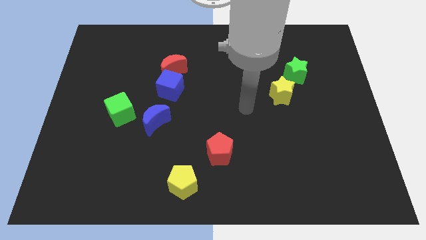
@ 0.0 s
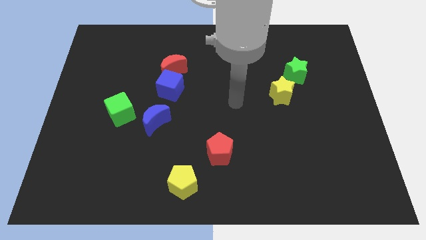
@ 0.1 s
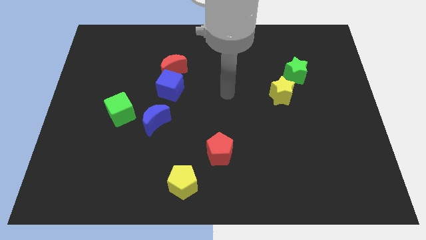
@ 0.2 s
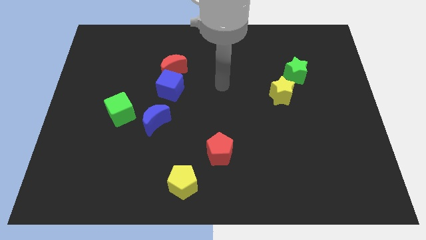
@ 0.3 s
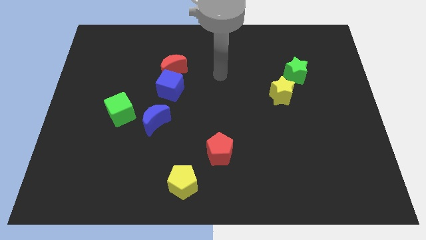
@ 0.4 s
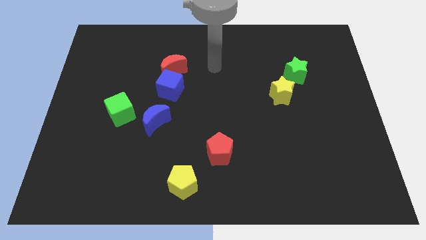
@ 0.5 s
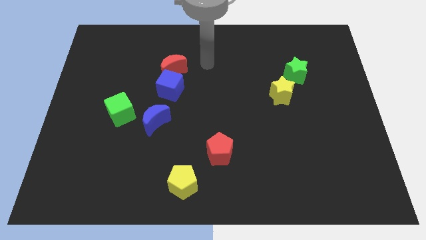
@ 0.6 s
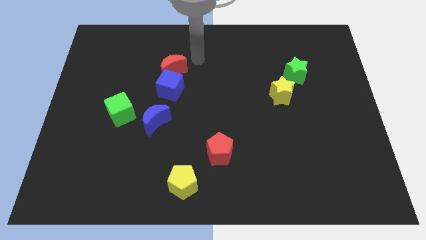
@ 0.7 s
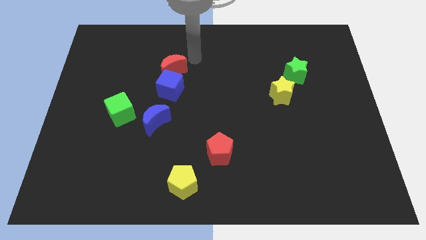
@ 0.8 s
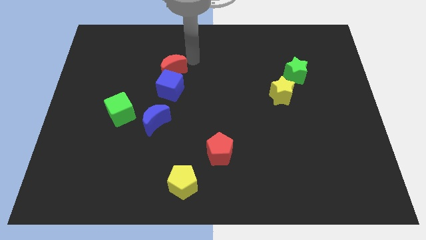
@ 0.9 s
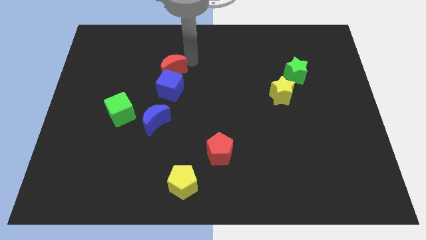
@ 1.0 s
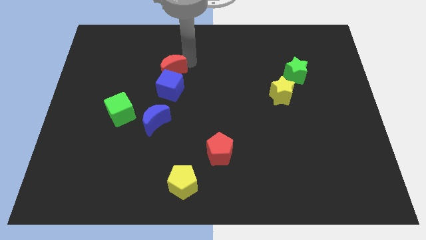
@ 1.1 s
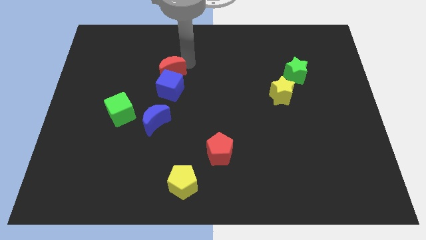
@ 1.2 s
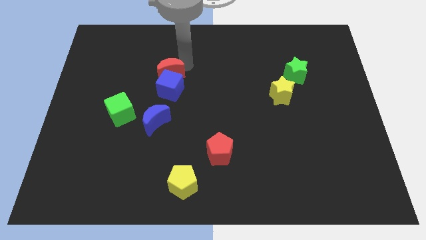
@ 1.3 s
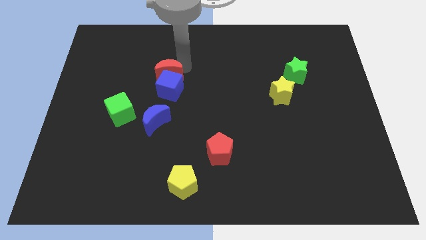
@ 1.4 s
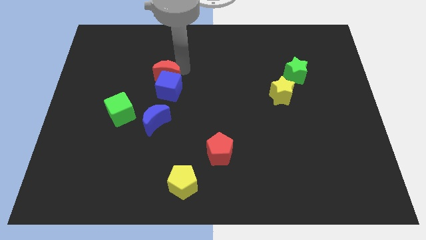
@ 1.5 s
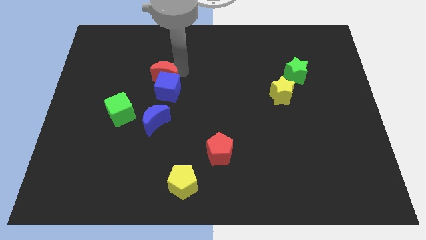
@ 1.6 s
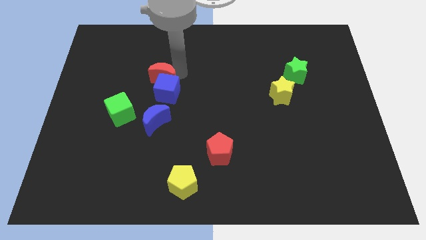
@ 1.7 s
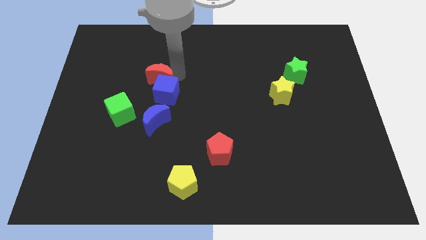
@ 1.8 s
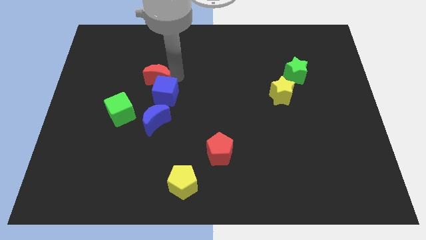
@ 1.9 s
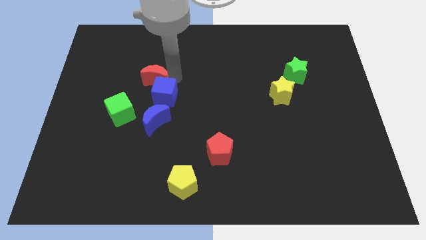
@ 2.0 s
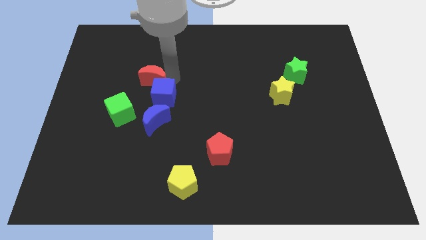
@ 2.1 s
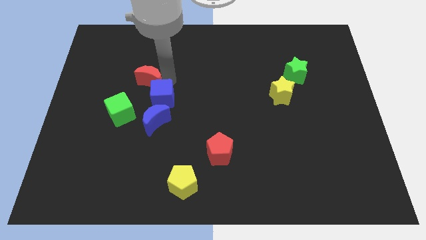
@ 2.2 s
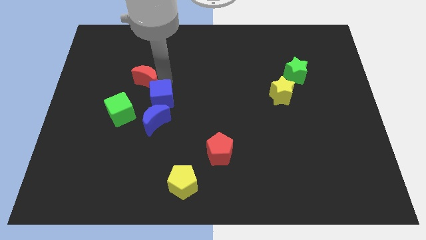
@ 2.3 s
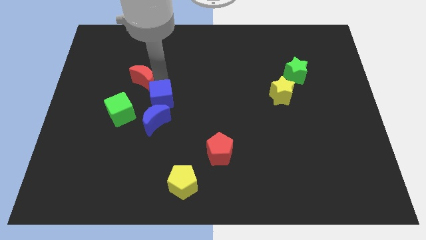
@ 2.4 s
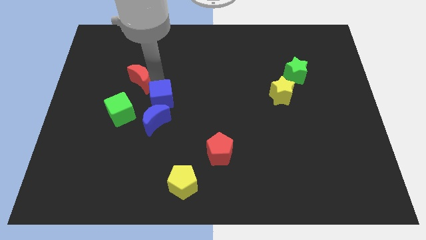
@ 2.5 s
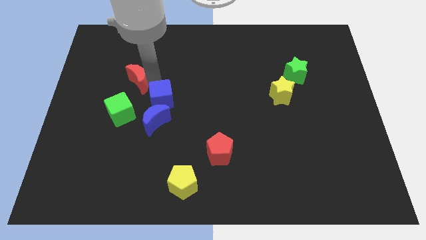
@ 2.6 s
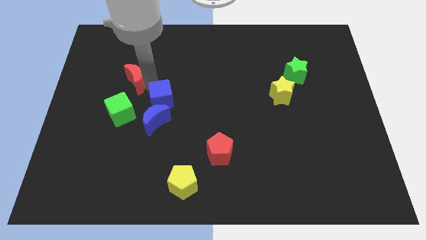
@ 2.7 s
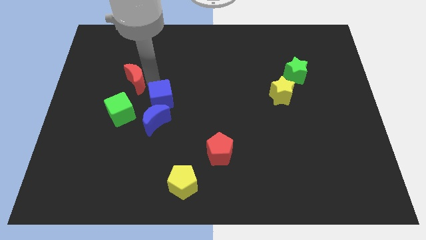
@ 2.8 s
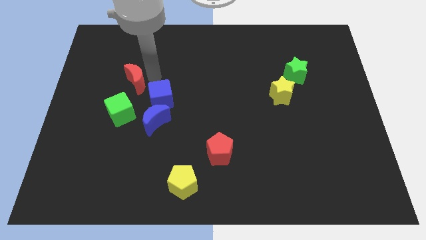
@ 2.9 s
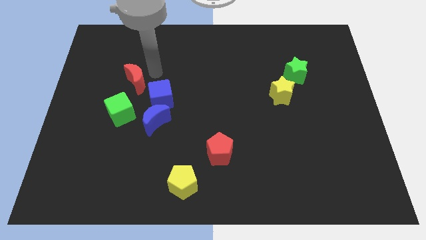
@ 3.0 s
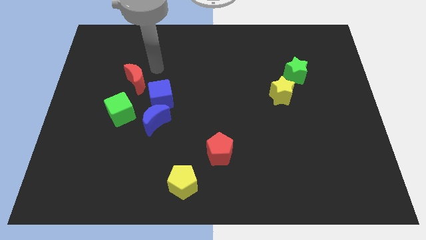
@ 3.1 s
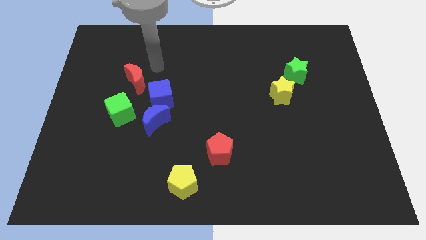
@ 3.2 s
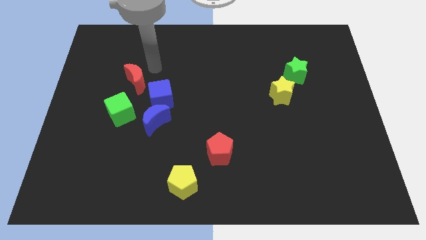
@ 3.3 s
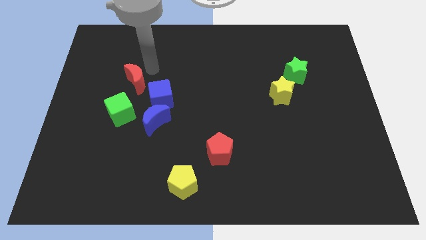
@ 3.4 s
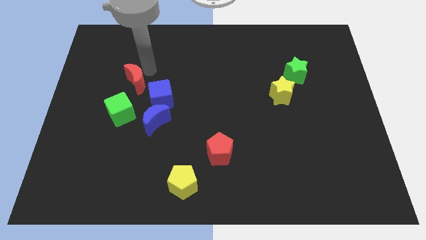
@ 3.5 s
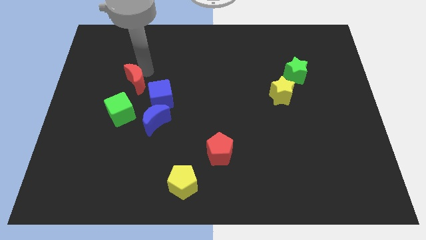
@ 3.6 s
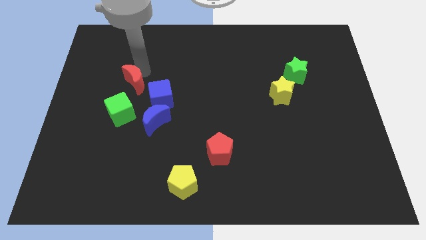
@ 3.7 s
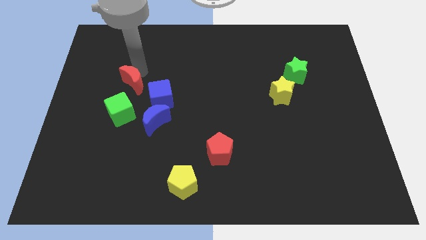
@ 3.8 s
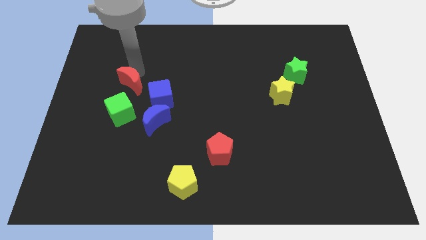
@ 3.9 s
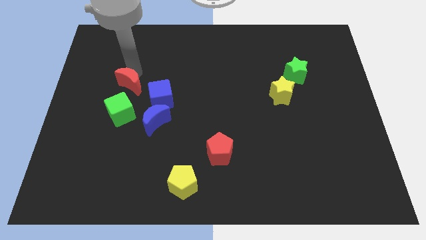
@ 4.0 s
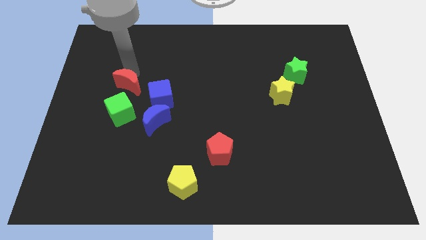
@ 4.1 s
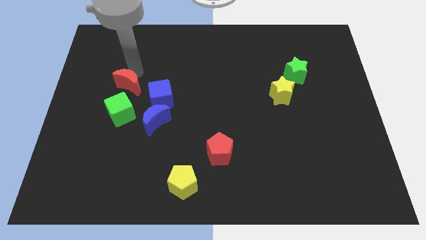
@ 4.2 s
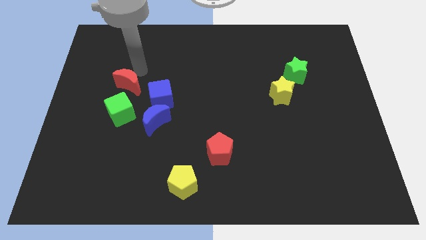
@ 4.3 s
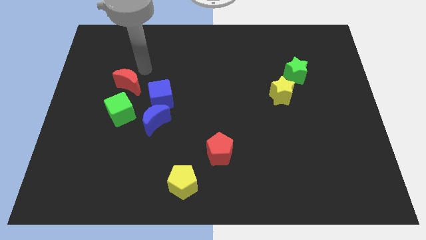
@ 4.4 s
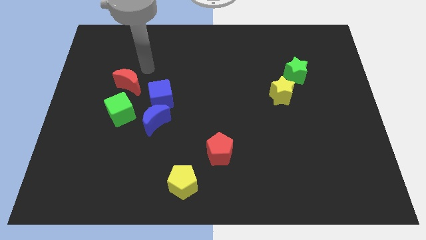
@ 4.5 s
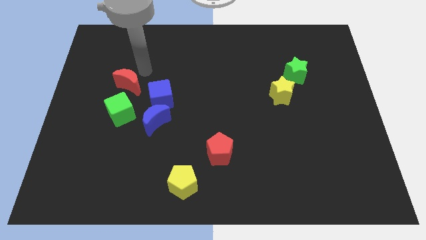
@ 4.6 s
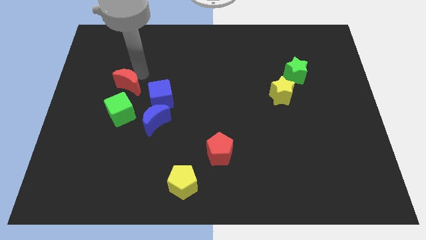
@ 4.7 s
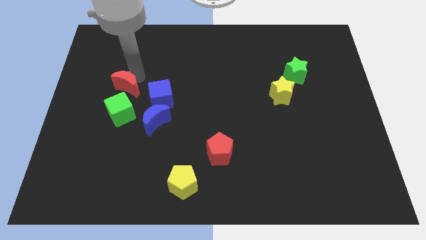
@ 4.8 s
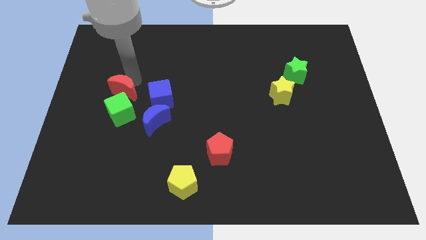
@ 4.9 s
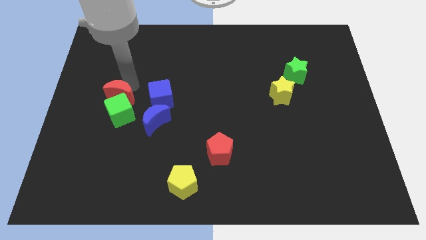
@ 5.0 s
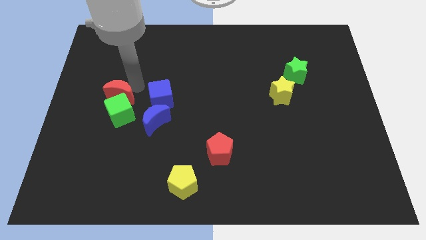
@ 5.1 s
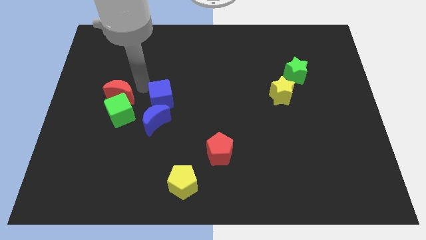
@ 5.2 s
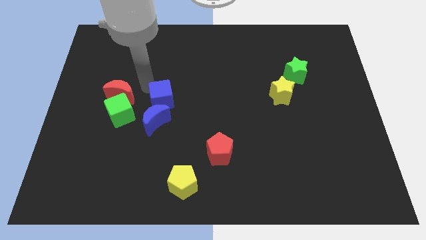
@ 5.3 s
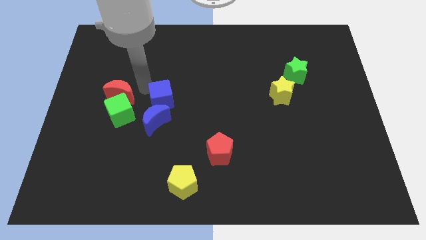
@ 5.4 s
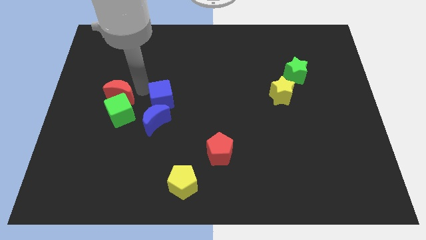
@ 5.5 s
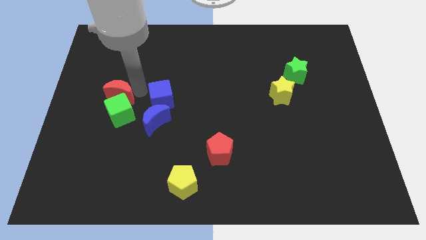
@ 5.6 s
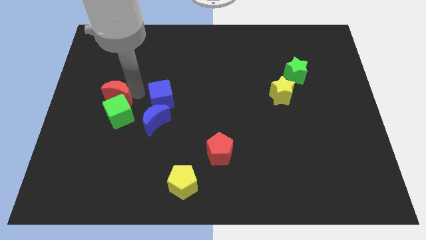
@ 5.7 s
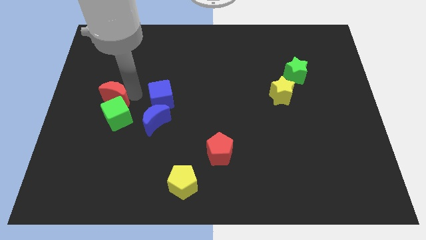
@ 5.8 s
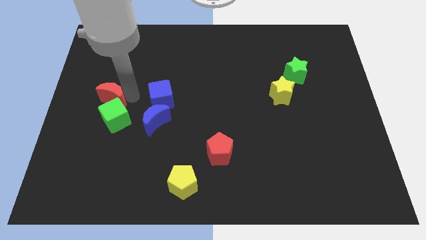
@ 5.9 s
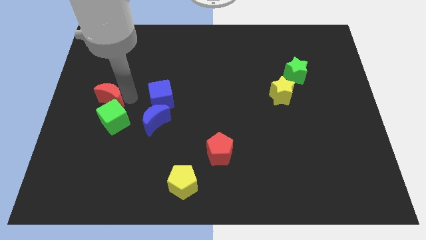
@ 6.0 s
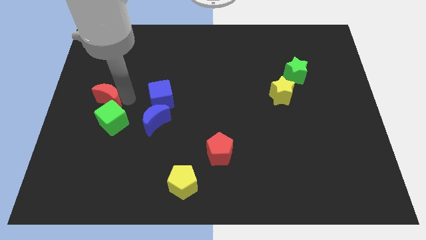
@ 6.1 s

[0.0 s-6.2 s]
slide the red moon to the center left
